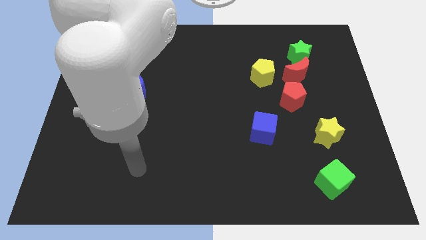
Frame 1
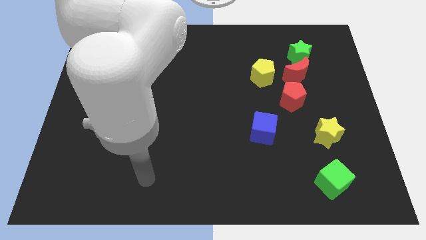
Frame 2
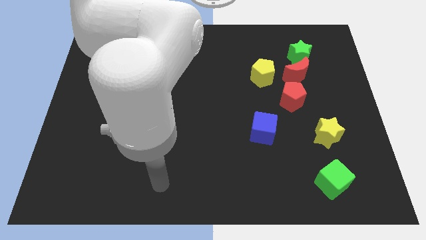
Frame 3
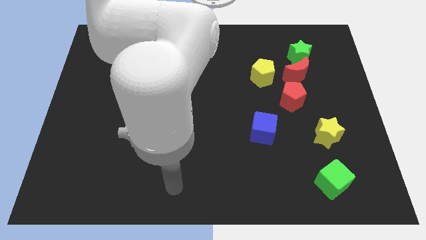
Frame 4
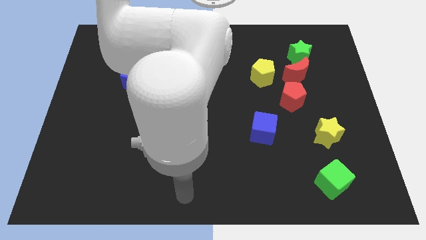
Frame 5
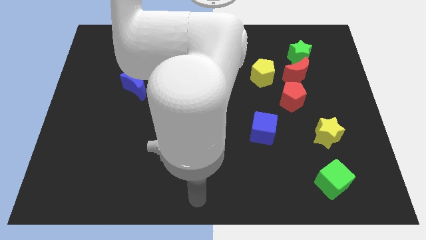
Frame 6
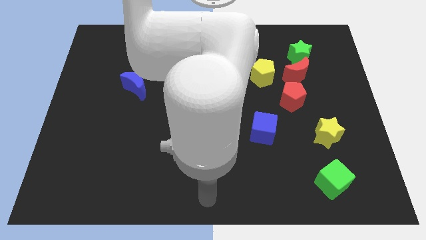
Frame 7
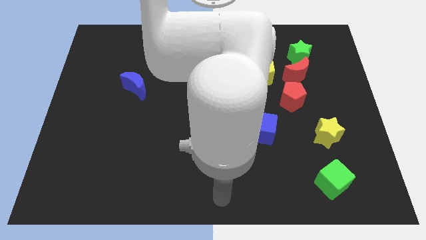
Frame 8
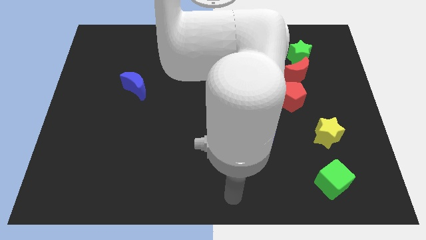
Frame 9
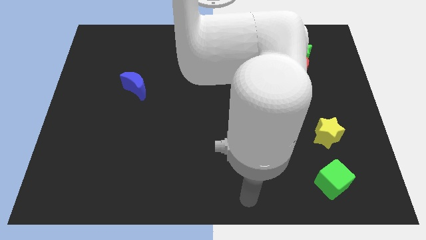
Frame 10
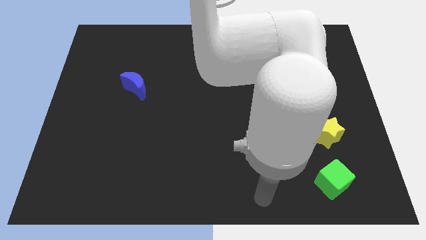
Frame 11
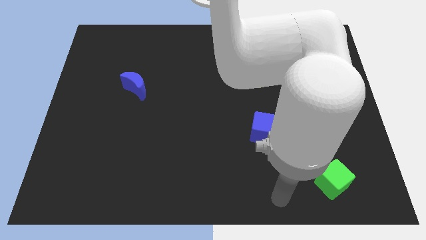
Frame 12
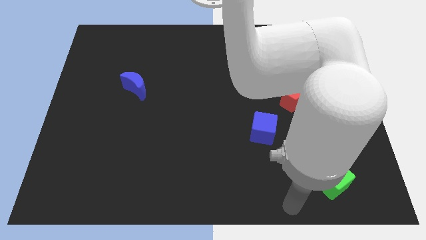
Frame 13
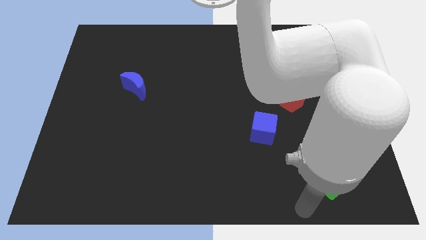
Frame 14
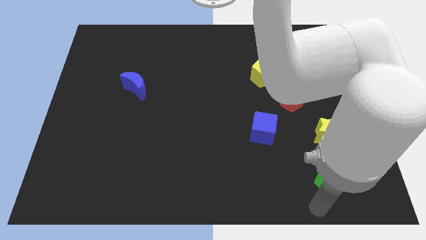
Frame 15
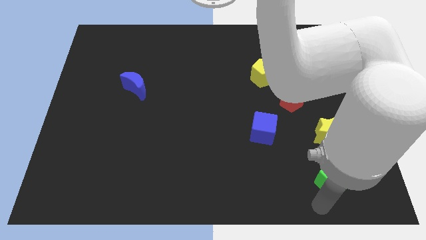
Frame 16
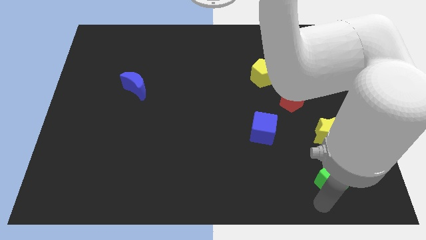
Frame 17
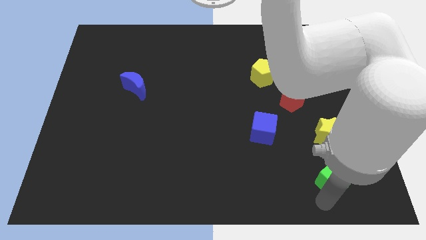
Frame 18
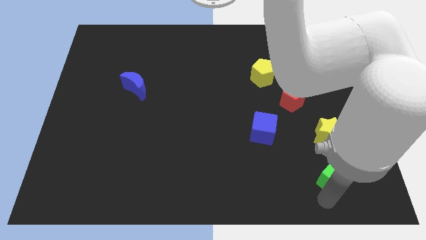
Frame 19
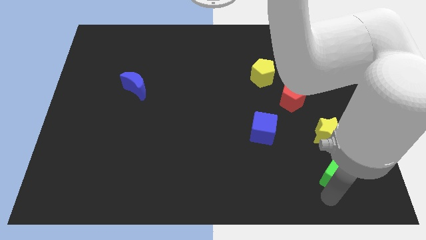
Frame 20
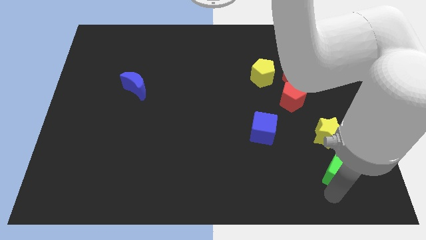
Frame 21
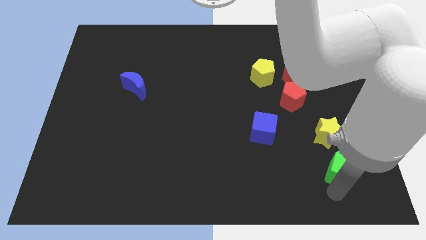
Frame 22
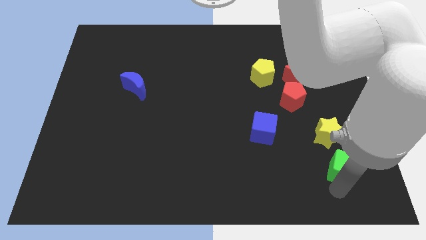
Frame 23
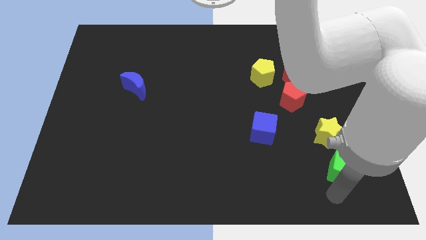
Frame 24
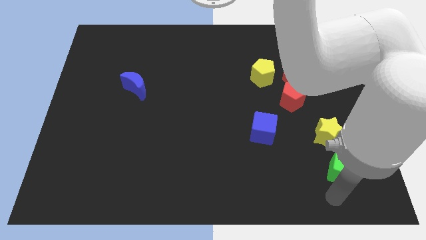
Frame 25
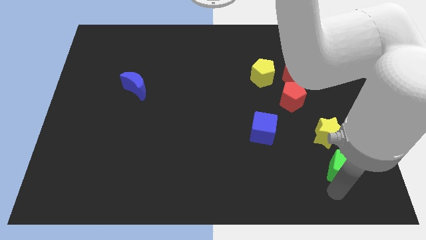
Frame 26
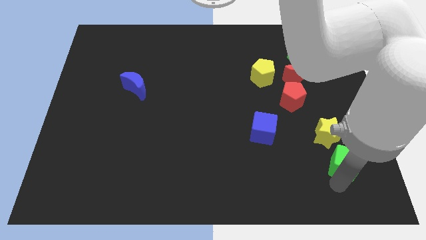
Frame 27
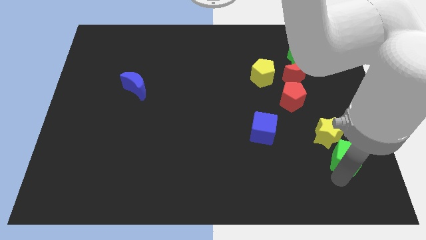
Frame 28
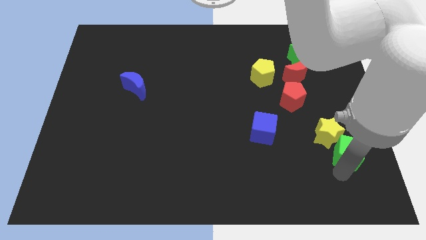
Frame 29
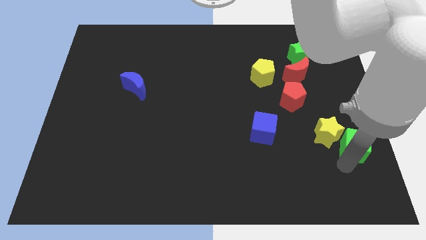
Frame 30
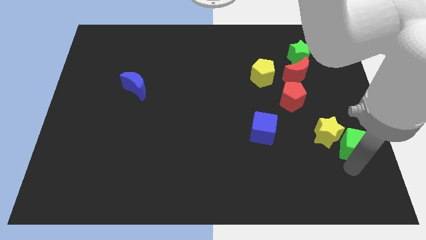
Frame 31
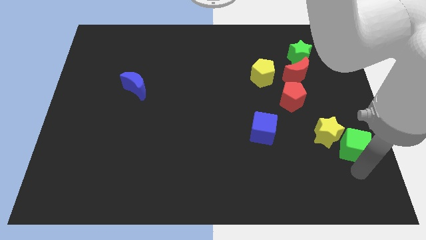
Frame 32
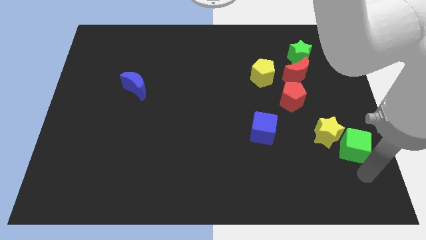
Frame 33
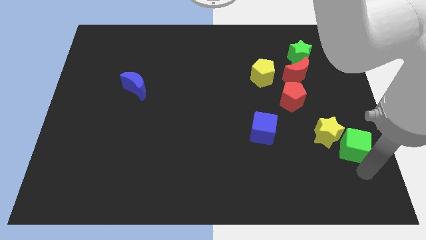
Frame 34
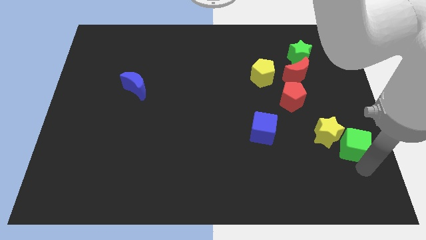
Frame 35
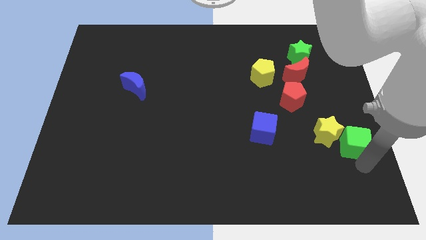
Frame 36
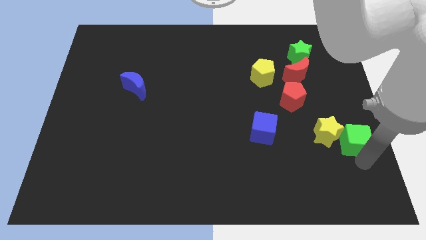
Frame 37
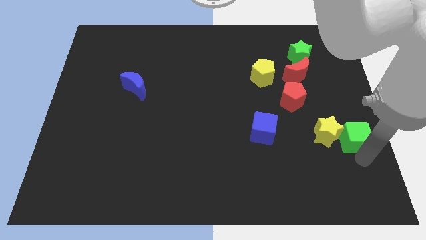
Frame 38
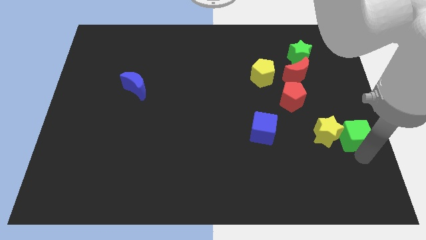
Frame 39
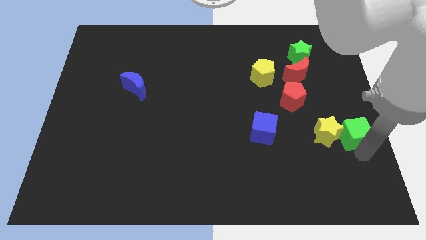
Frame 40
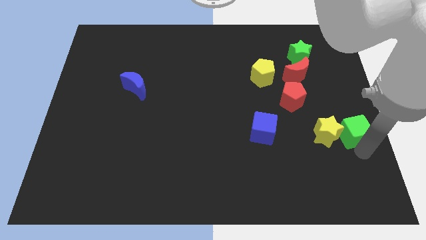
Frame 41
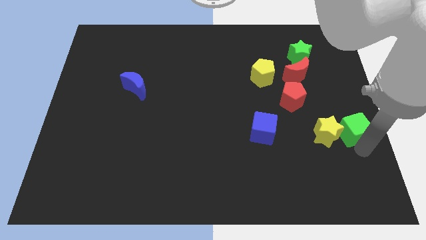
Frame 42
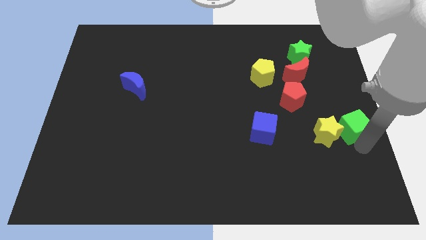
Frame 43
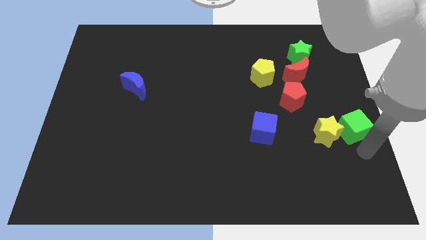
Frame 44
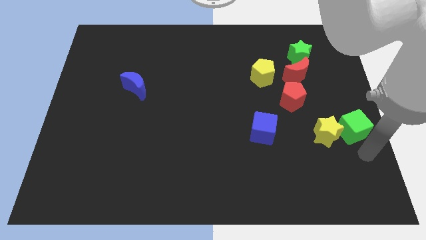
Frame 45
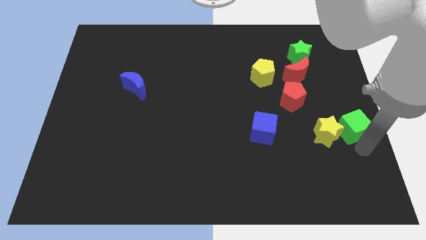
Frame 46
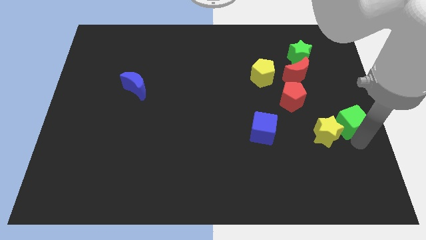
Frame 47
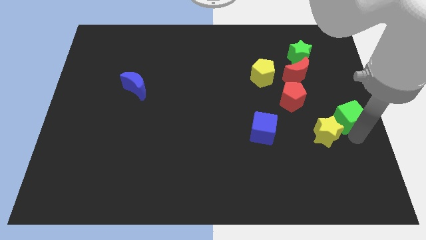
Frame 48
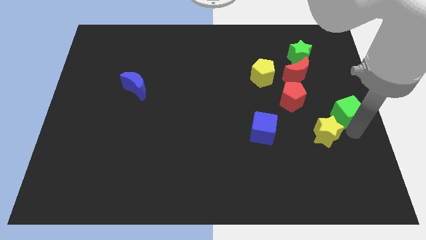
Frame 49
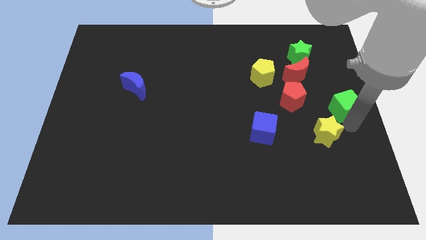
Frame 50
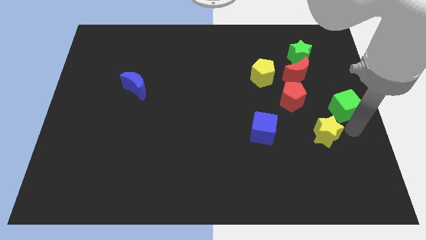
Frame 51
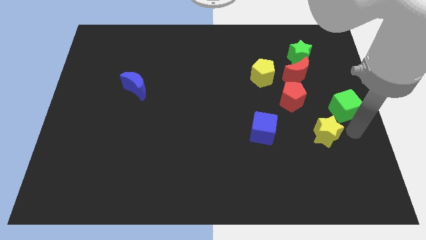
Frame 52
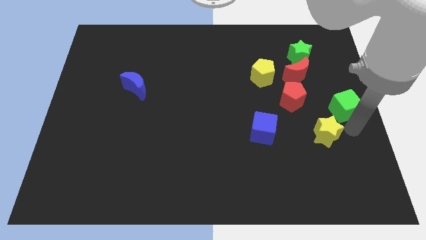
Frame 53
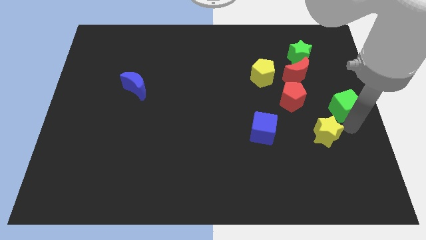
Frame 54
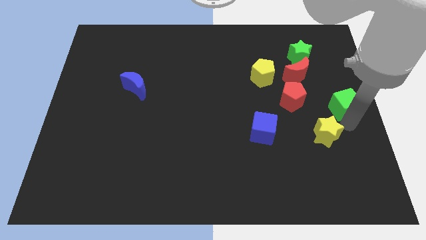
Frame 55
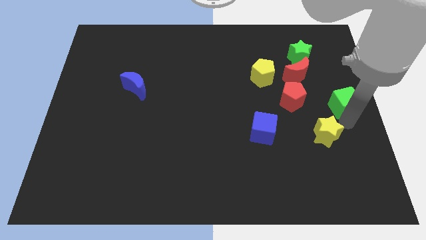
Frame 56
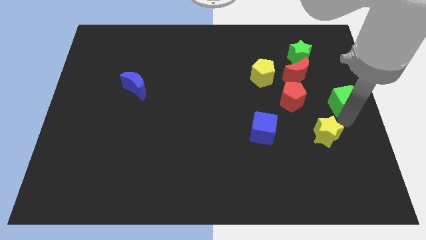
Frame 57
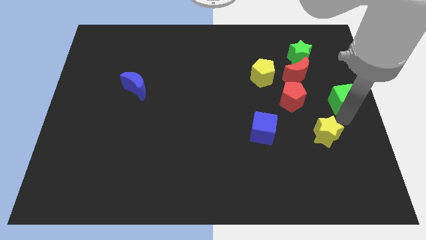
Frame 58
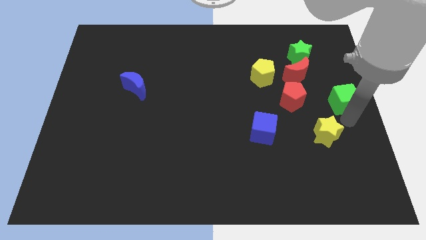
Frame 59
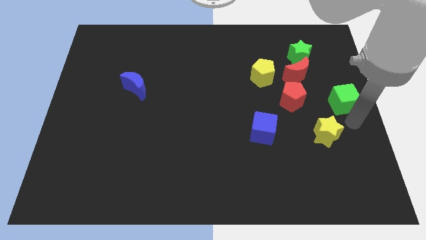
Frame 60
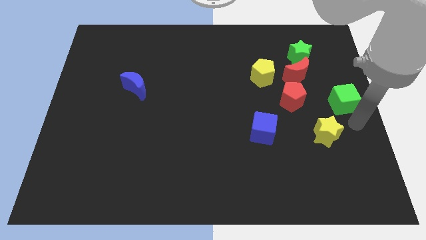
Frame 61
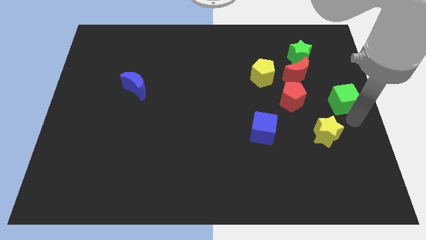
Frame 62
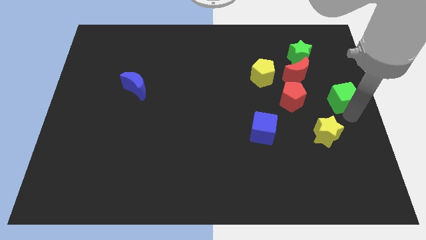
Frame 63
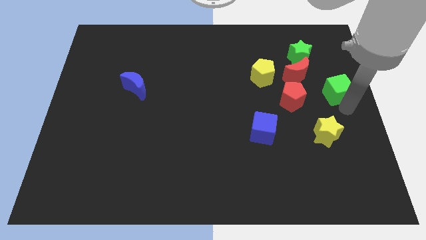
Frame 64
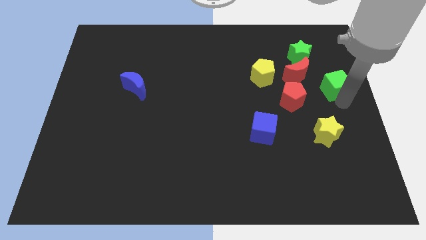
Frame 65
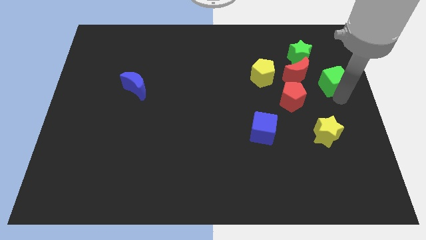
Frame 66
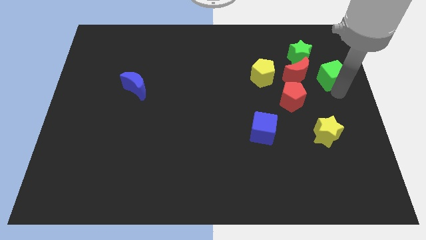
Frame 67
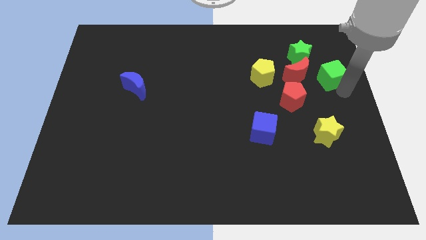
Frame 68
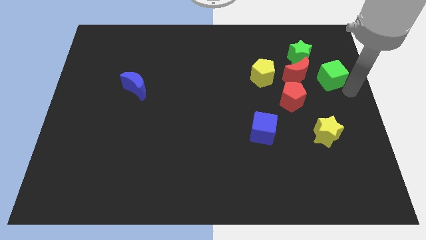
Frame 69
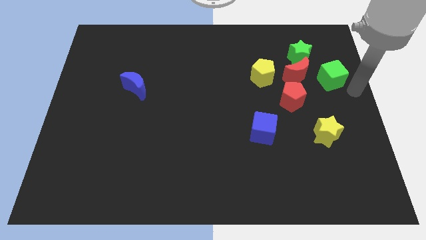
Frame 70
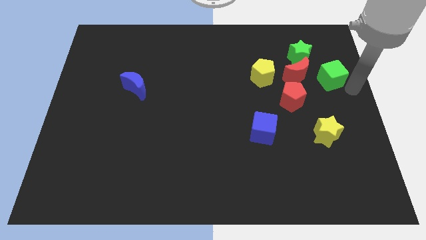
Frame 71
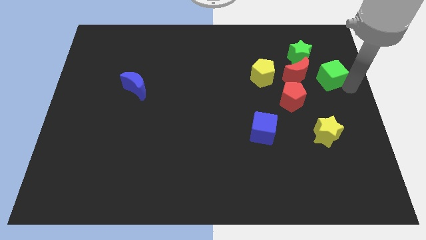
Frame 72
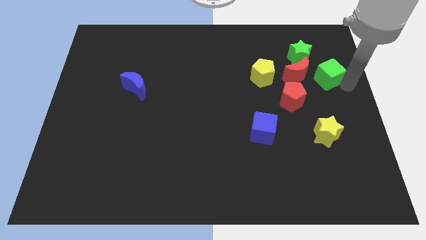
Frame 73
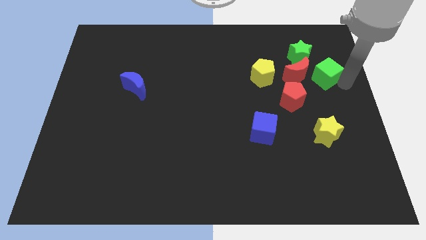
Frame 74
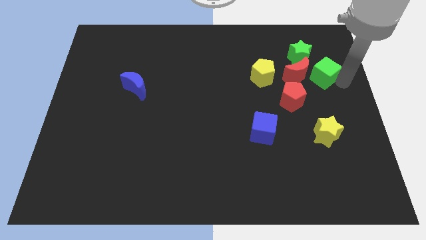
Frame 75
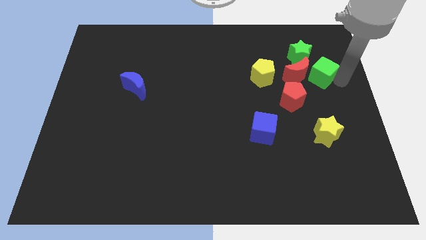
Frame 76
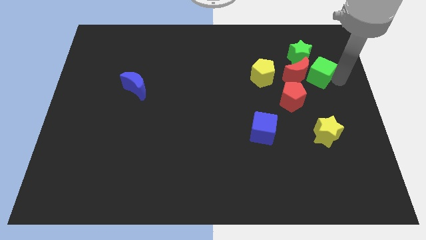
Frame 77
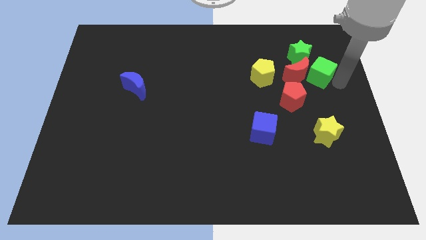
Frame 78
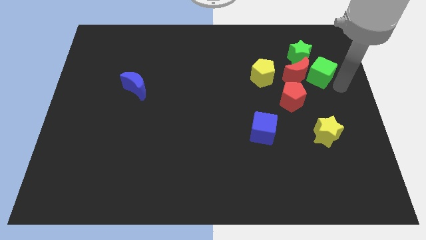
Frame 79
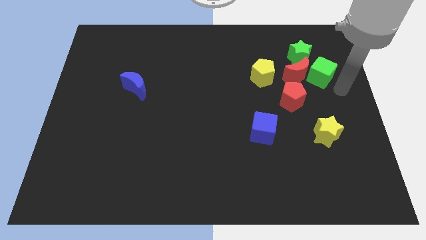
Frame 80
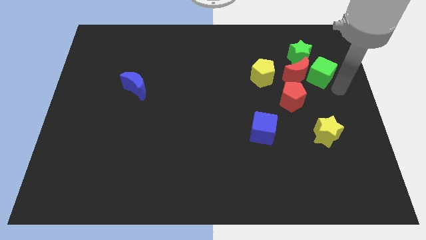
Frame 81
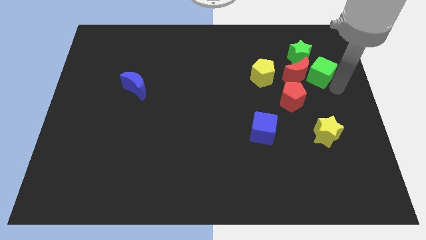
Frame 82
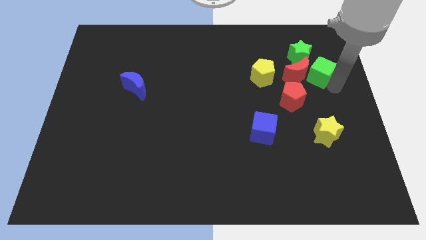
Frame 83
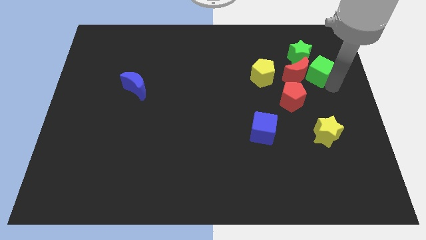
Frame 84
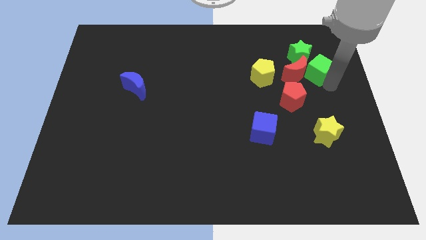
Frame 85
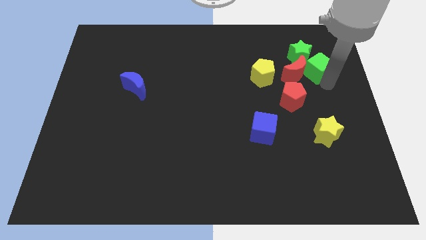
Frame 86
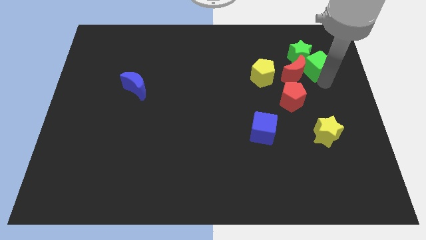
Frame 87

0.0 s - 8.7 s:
move the green cube to the green star
